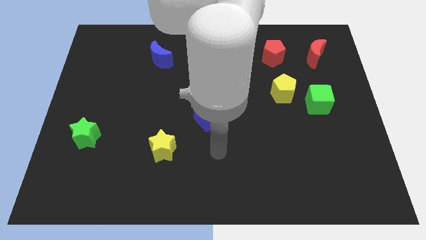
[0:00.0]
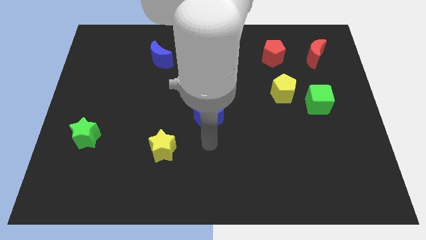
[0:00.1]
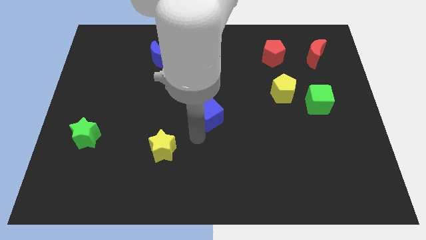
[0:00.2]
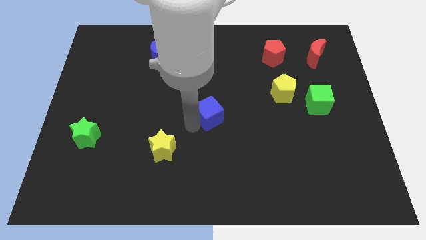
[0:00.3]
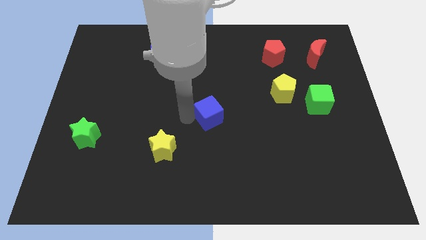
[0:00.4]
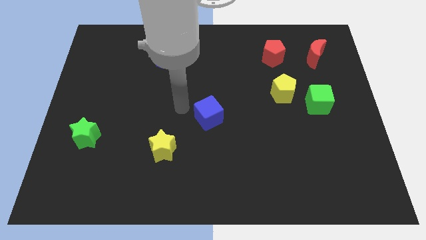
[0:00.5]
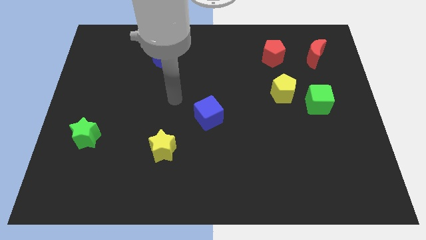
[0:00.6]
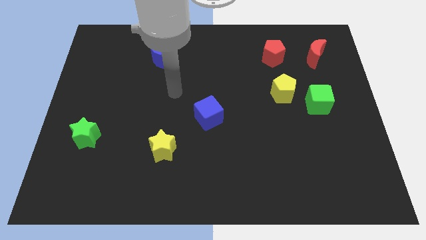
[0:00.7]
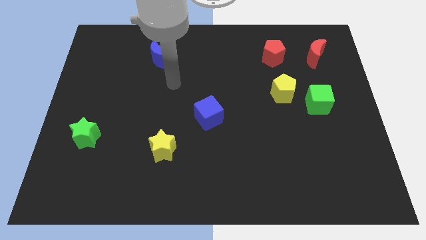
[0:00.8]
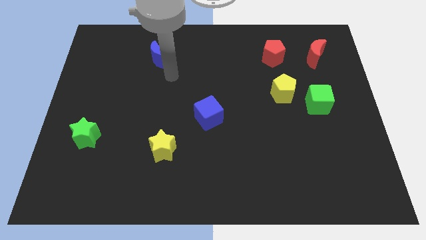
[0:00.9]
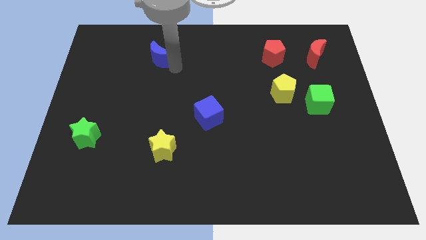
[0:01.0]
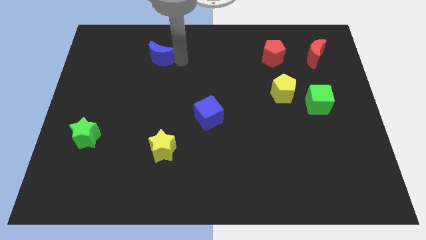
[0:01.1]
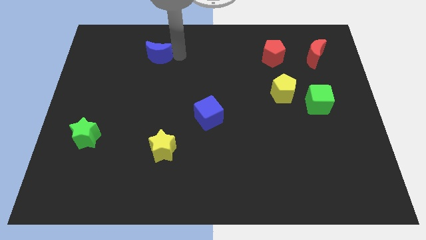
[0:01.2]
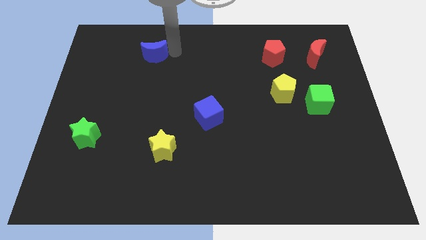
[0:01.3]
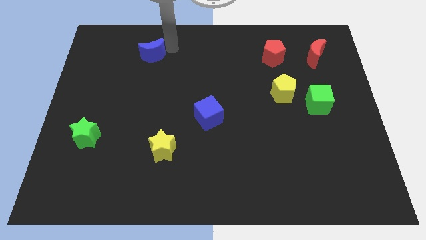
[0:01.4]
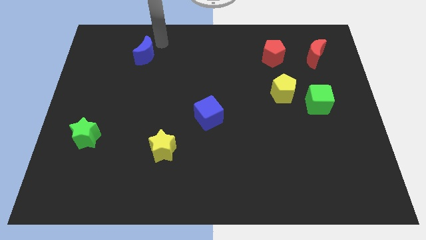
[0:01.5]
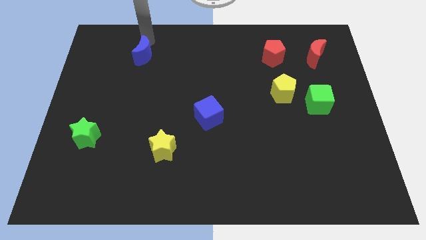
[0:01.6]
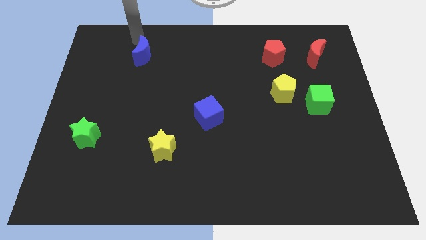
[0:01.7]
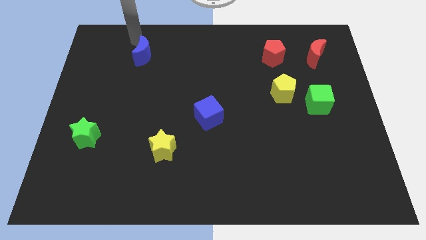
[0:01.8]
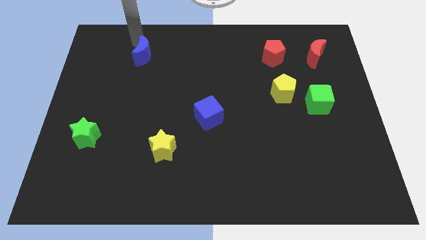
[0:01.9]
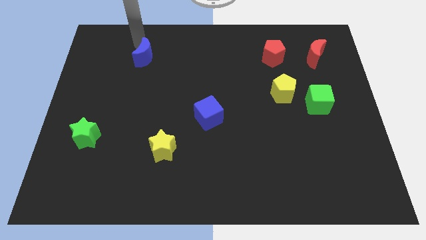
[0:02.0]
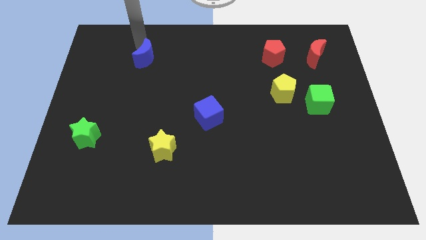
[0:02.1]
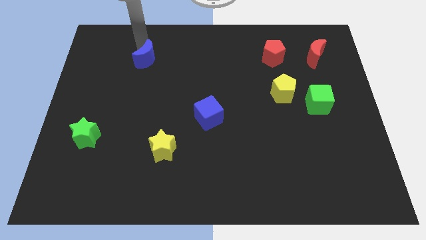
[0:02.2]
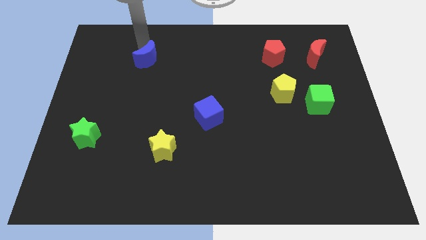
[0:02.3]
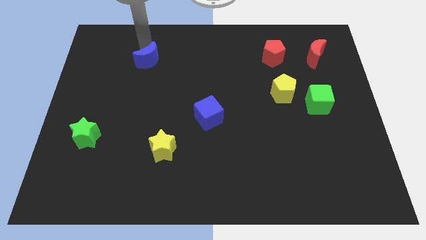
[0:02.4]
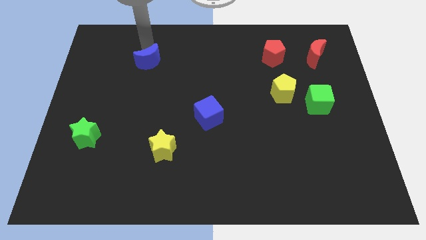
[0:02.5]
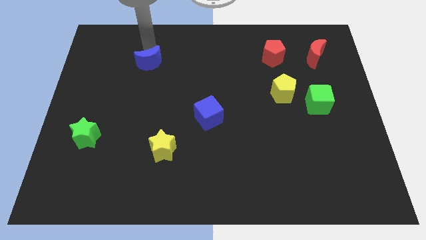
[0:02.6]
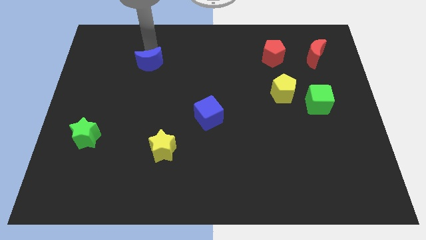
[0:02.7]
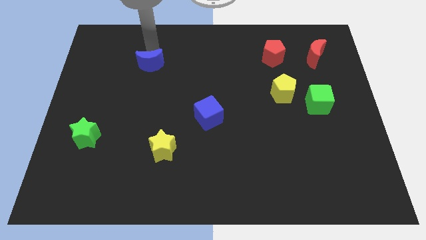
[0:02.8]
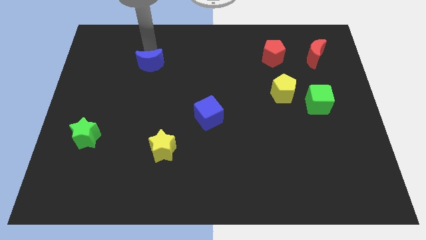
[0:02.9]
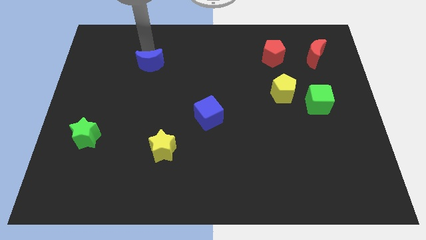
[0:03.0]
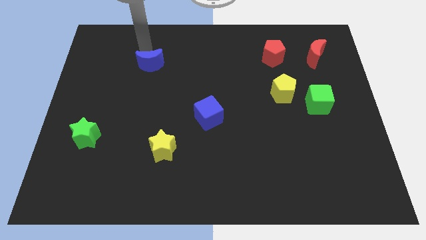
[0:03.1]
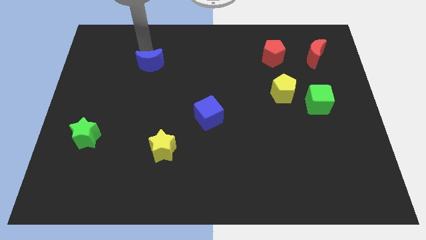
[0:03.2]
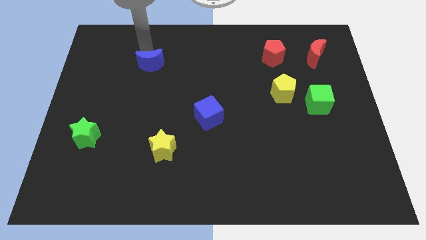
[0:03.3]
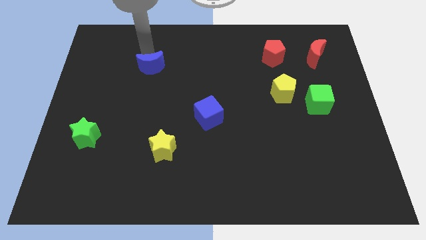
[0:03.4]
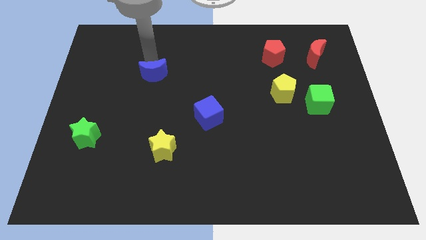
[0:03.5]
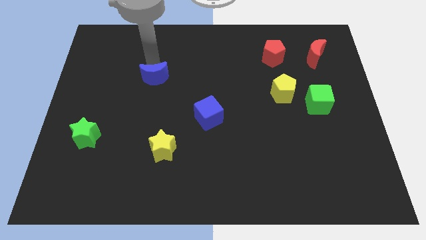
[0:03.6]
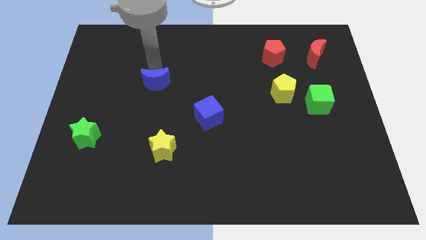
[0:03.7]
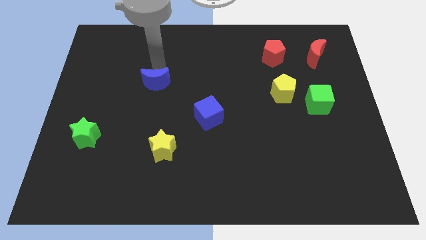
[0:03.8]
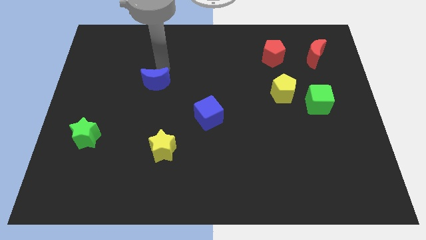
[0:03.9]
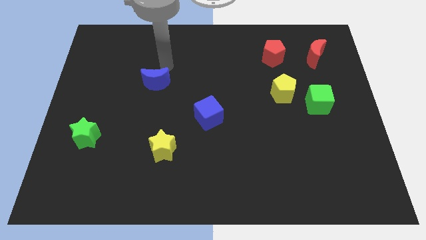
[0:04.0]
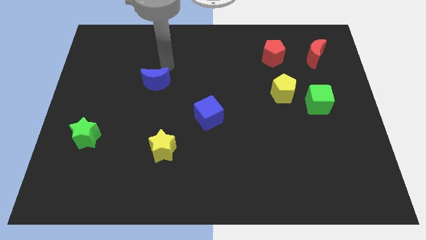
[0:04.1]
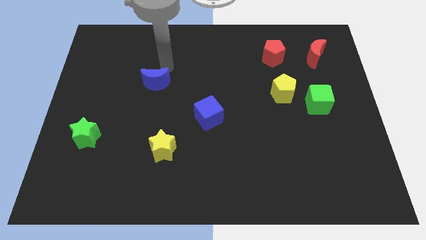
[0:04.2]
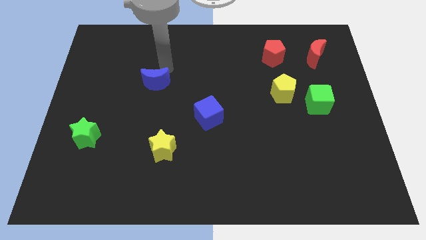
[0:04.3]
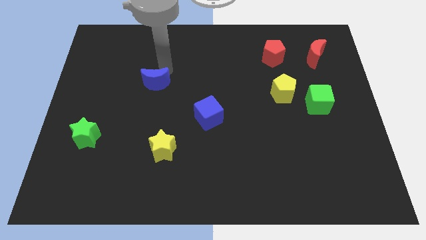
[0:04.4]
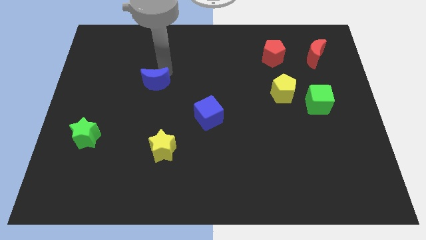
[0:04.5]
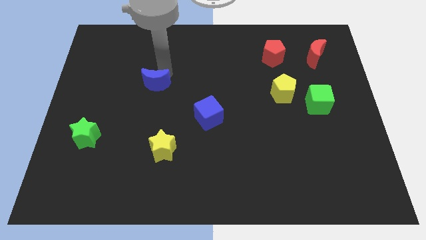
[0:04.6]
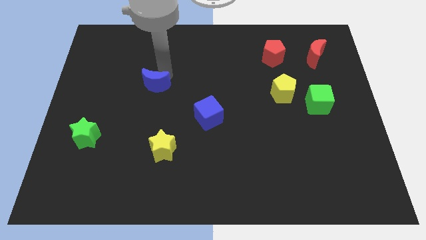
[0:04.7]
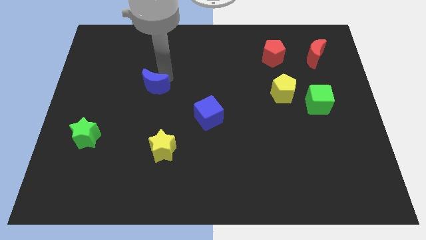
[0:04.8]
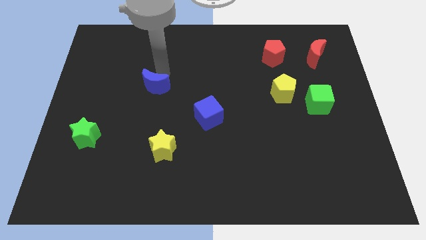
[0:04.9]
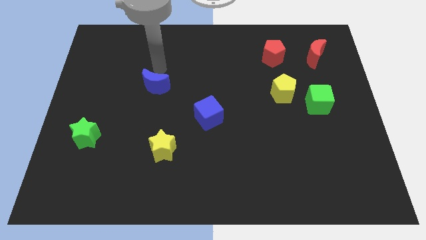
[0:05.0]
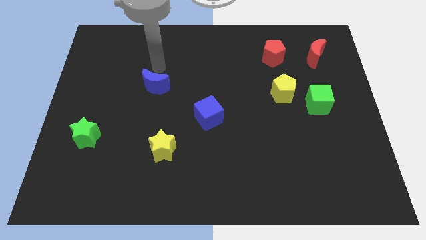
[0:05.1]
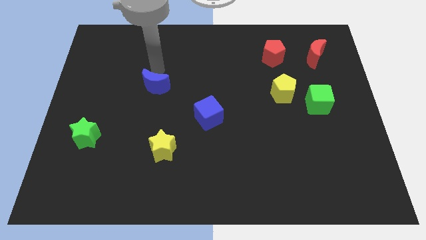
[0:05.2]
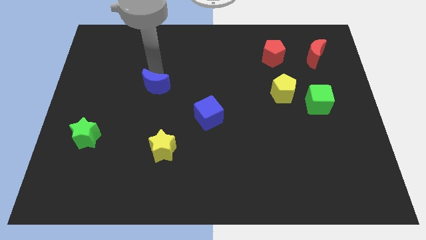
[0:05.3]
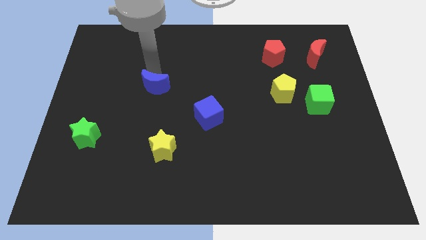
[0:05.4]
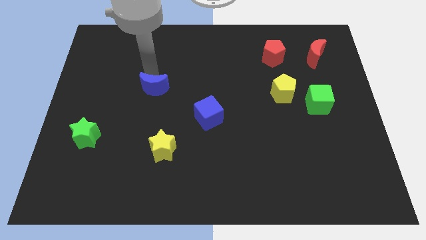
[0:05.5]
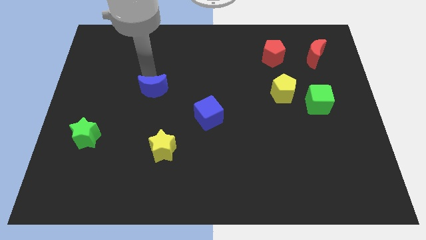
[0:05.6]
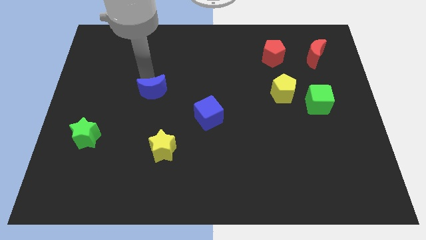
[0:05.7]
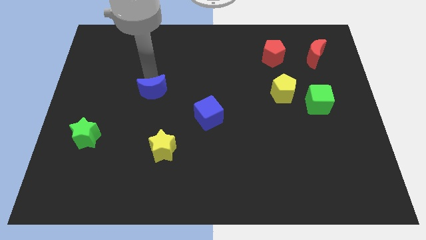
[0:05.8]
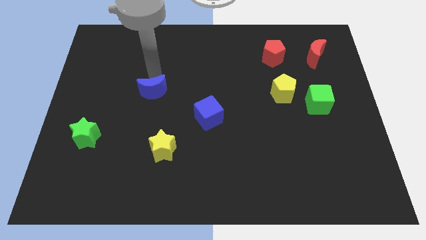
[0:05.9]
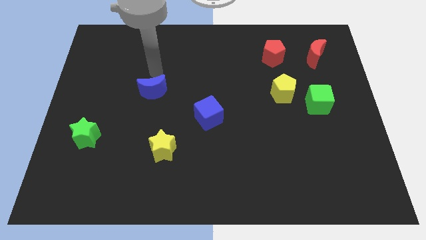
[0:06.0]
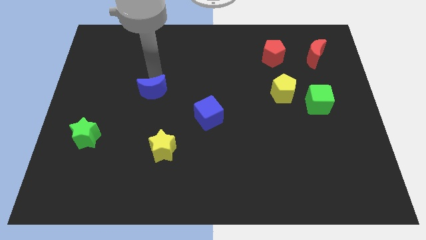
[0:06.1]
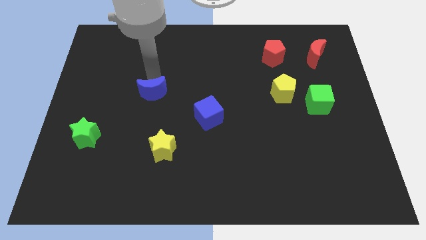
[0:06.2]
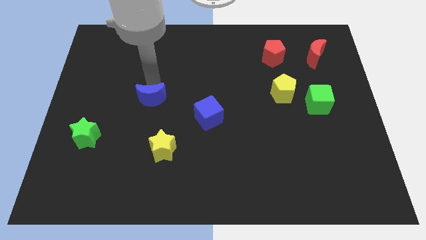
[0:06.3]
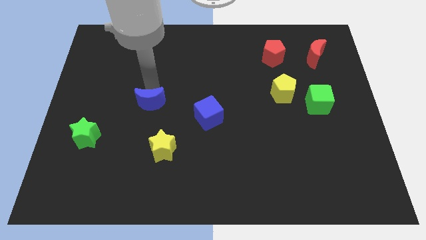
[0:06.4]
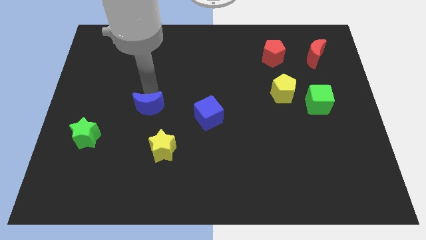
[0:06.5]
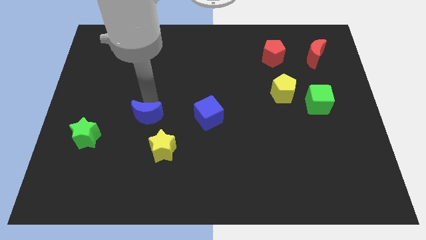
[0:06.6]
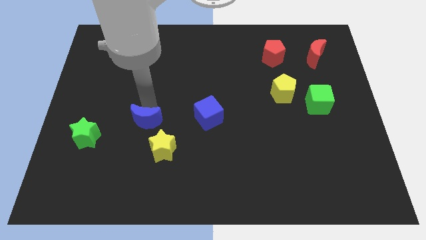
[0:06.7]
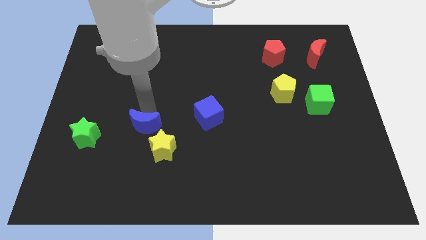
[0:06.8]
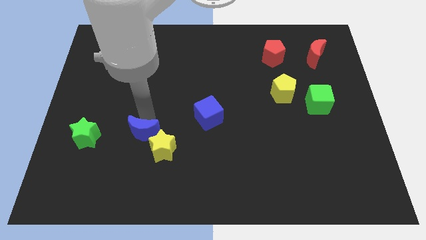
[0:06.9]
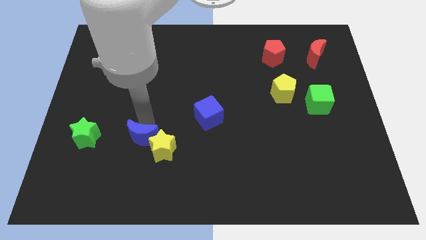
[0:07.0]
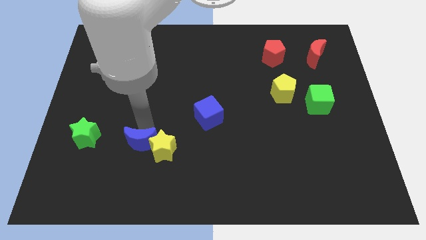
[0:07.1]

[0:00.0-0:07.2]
slide the blue moon diagonally down and to the left of the yellow star

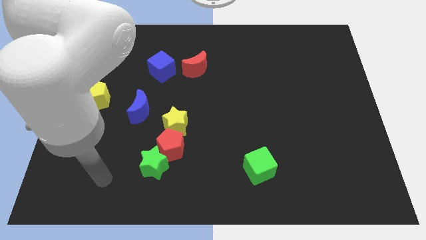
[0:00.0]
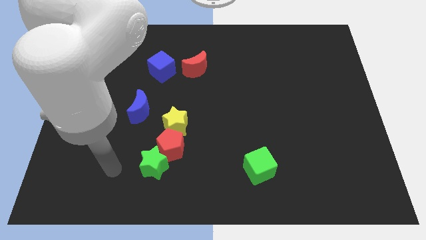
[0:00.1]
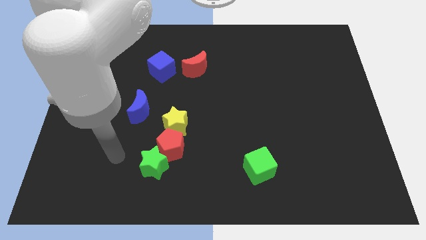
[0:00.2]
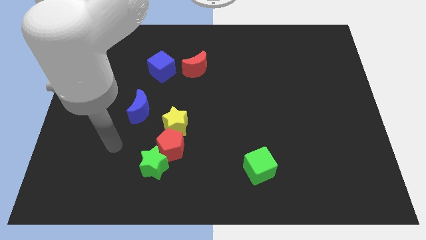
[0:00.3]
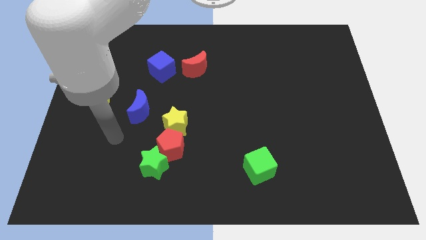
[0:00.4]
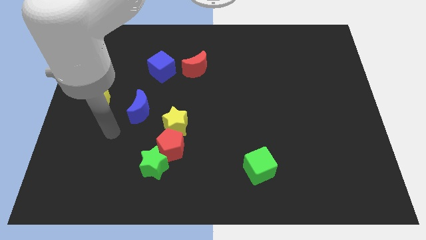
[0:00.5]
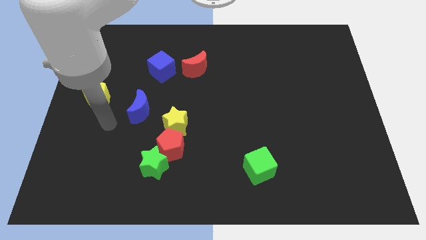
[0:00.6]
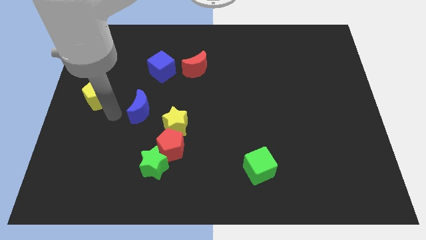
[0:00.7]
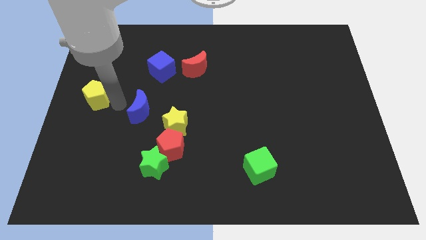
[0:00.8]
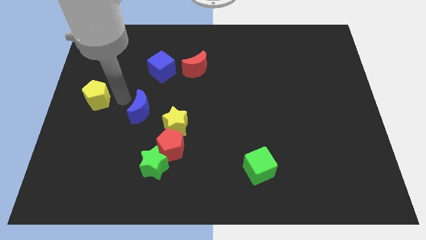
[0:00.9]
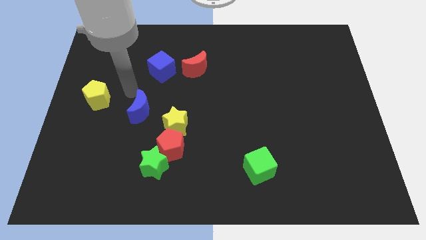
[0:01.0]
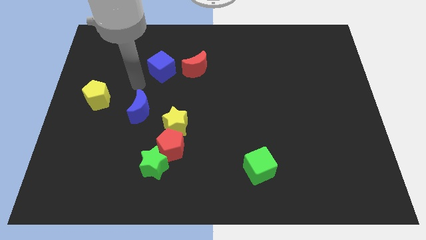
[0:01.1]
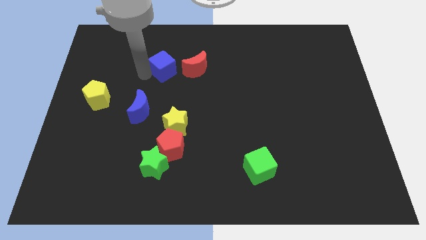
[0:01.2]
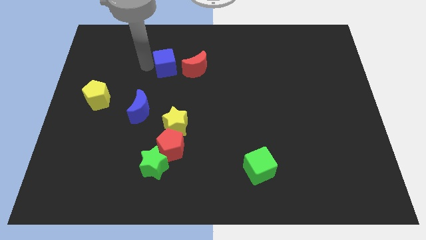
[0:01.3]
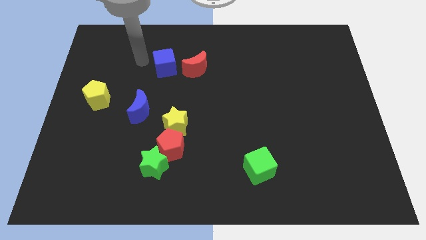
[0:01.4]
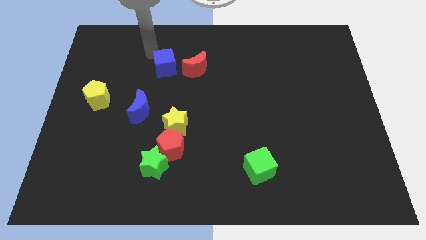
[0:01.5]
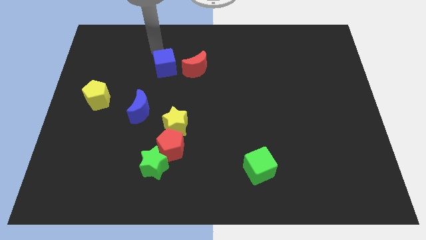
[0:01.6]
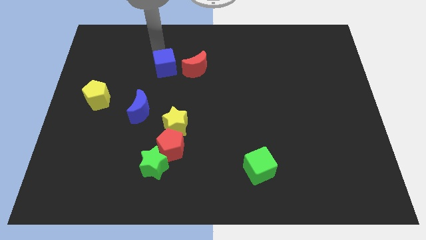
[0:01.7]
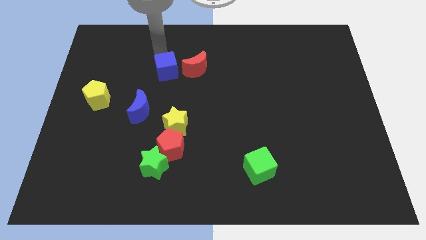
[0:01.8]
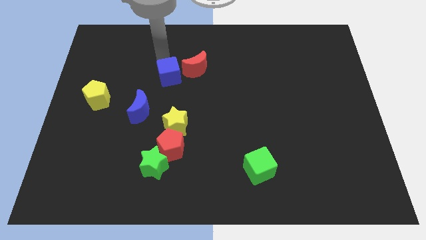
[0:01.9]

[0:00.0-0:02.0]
push the blue cube to the bottom left of the red moon
